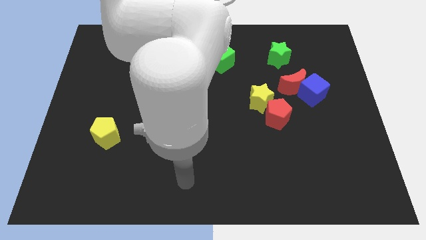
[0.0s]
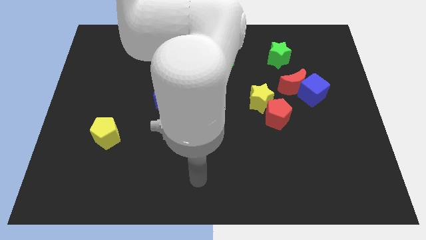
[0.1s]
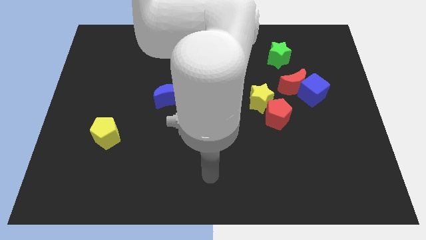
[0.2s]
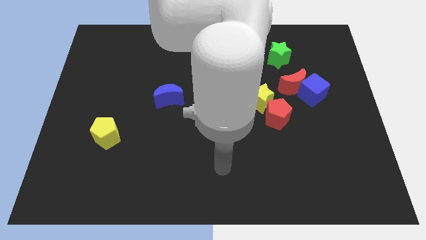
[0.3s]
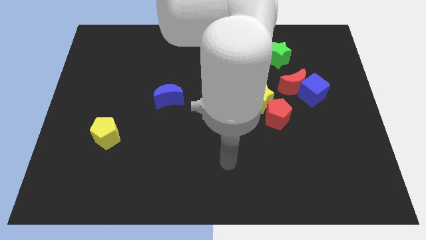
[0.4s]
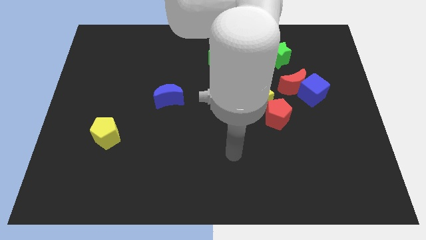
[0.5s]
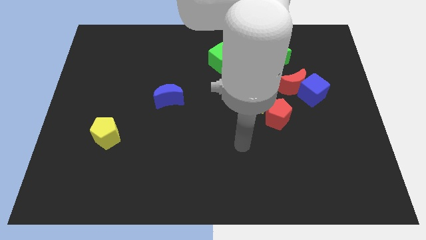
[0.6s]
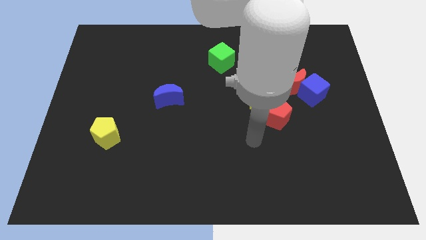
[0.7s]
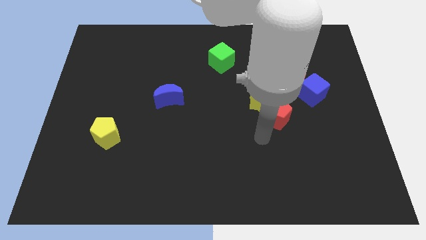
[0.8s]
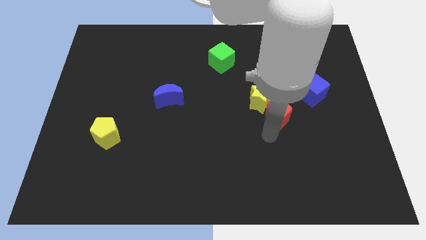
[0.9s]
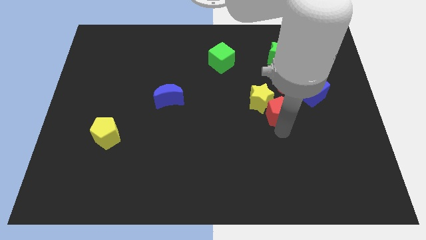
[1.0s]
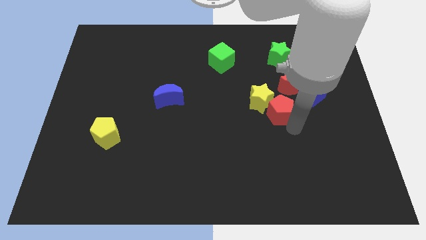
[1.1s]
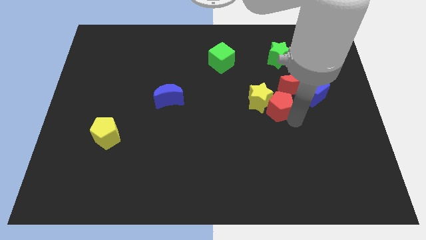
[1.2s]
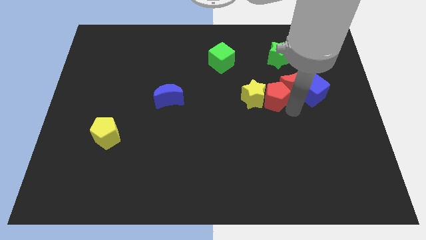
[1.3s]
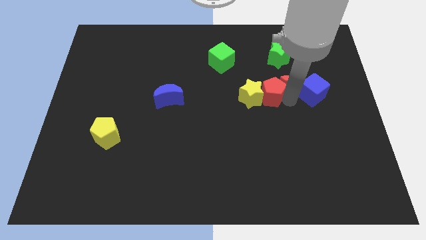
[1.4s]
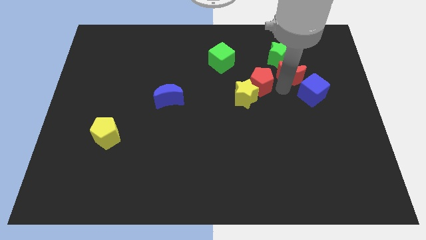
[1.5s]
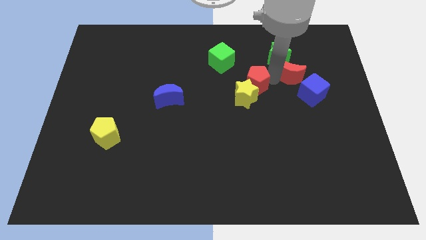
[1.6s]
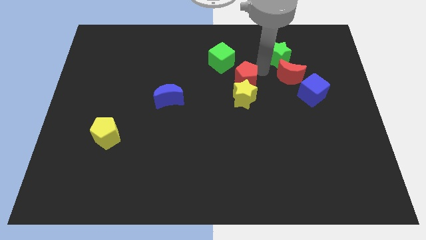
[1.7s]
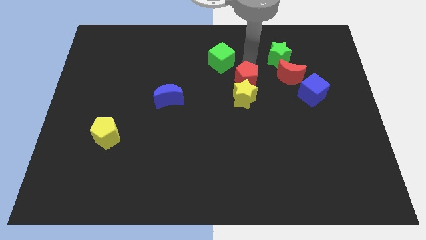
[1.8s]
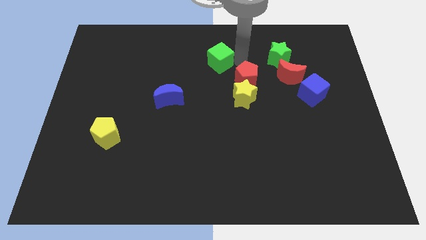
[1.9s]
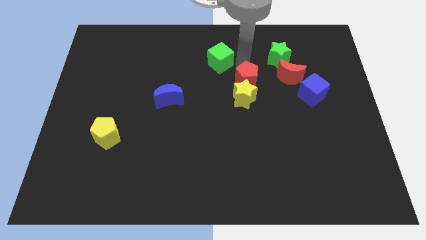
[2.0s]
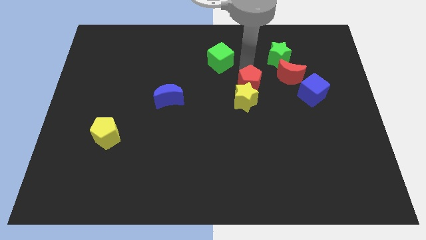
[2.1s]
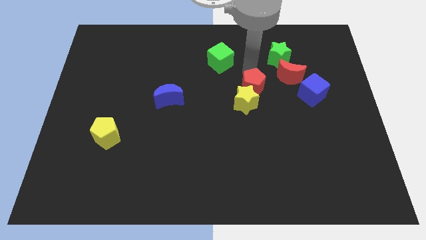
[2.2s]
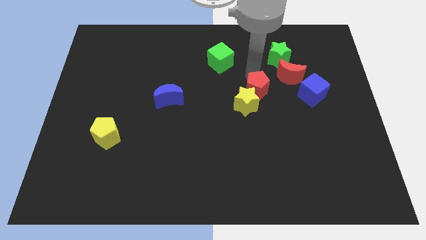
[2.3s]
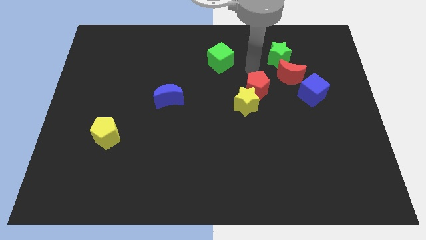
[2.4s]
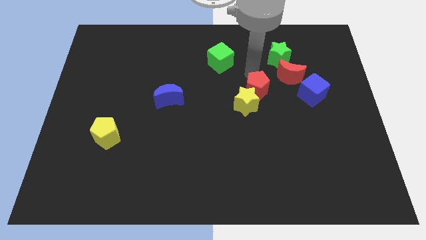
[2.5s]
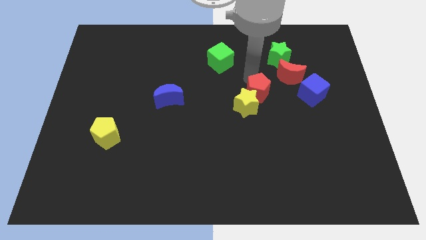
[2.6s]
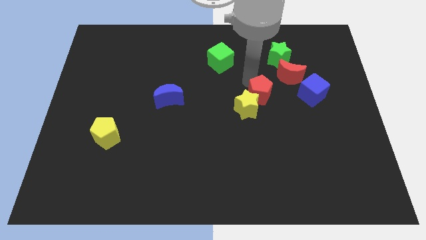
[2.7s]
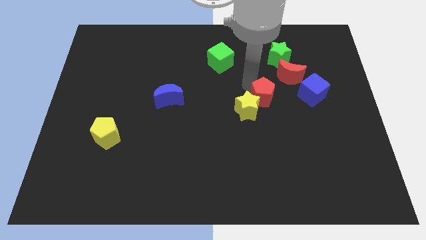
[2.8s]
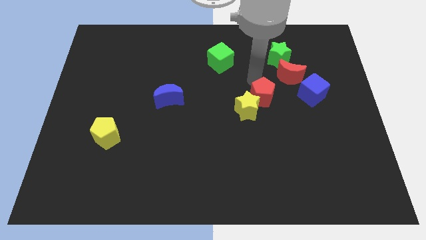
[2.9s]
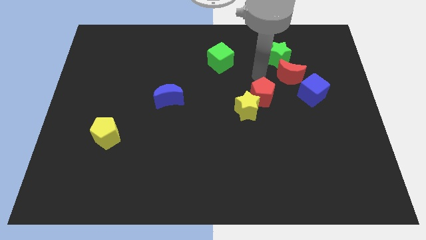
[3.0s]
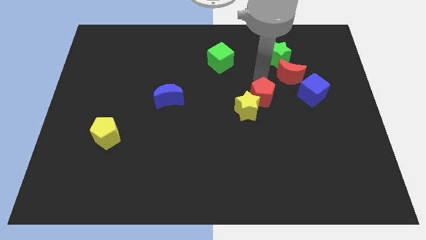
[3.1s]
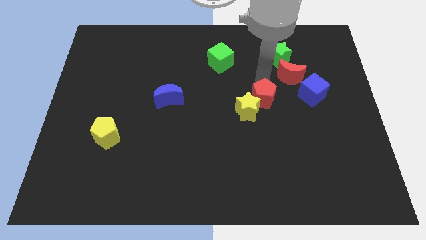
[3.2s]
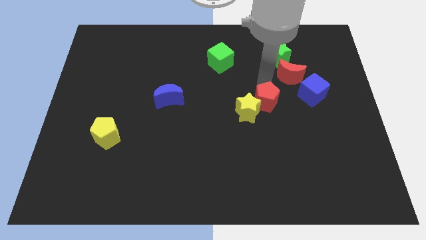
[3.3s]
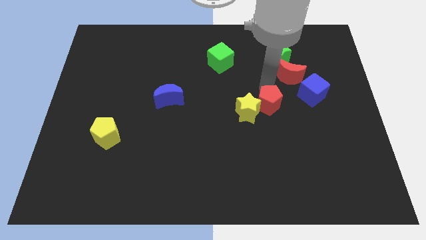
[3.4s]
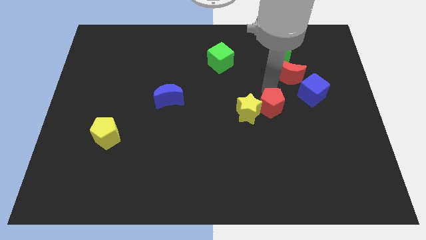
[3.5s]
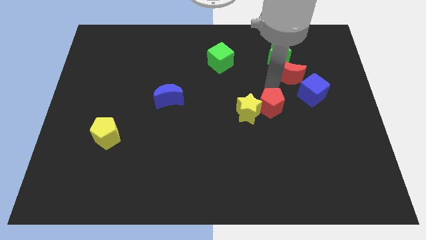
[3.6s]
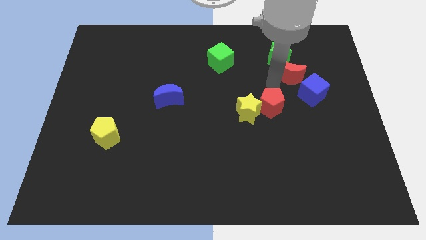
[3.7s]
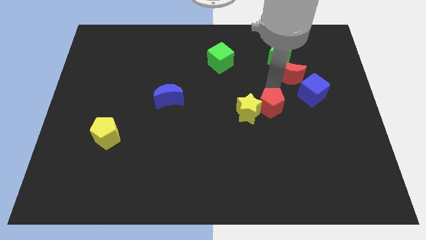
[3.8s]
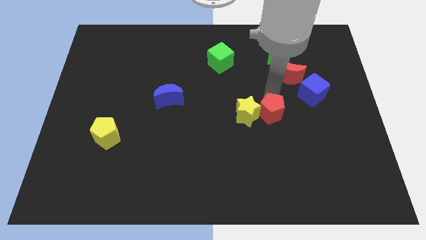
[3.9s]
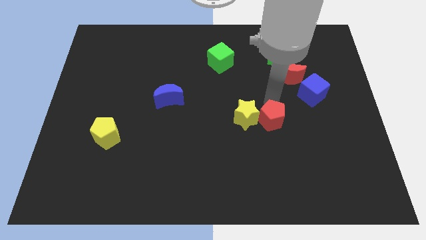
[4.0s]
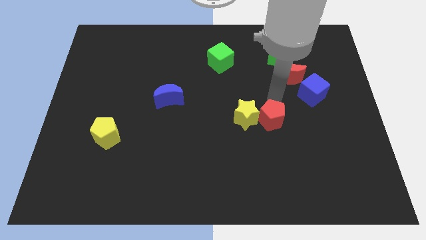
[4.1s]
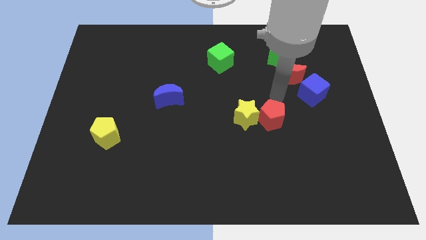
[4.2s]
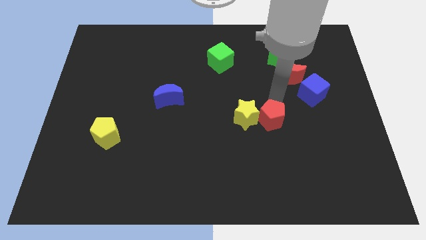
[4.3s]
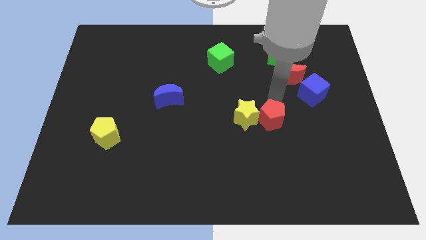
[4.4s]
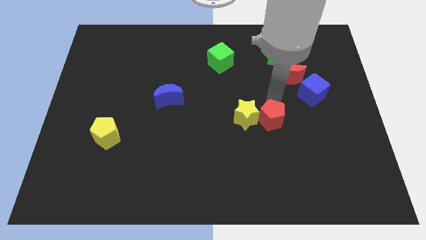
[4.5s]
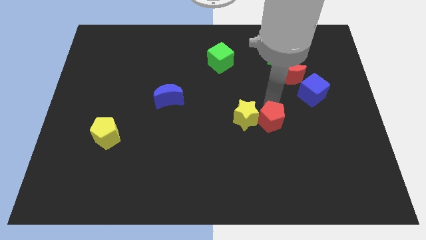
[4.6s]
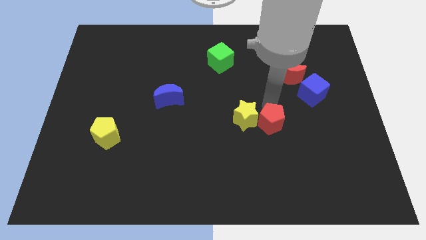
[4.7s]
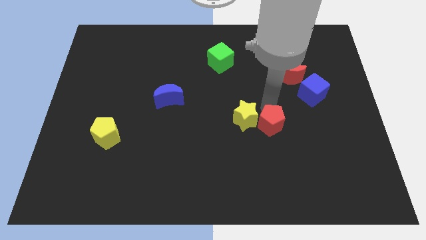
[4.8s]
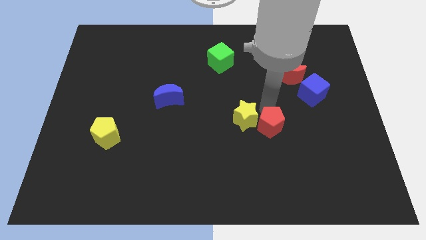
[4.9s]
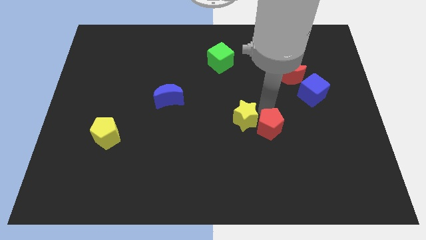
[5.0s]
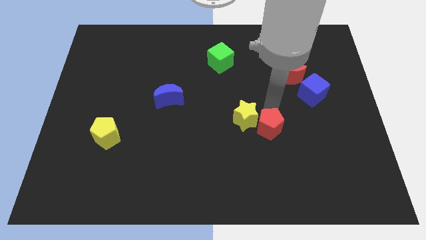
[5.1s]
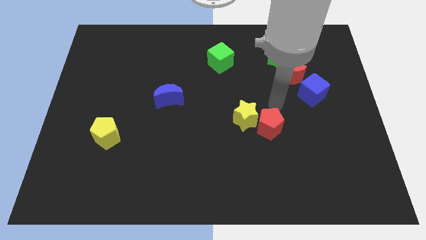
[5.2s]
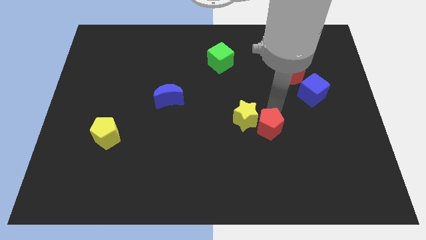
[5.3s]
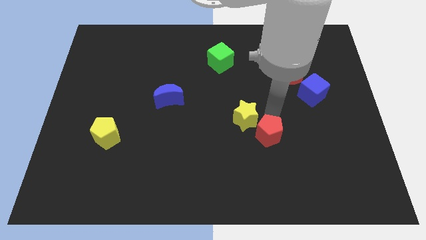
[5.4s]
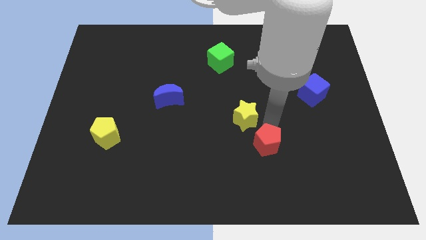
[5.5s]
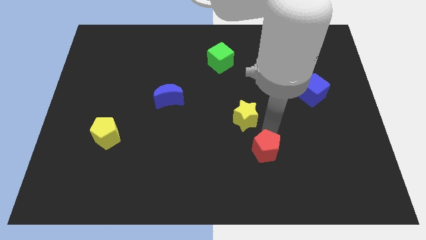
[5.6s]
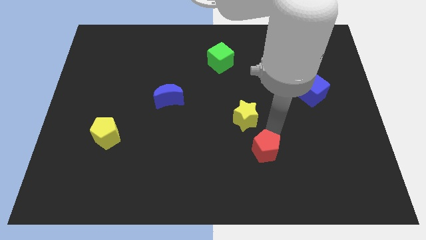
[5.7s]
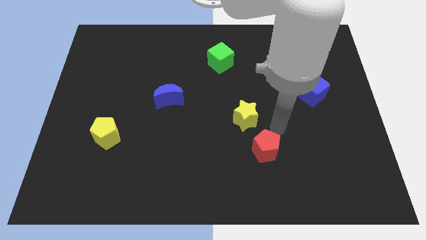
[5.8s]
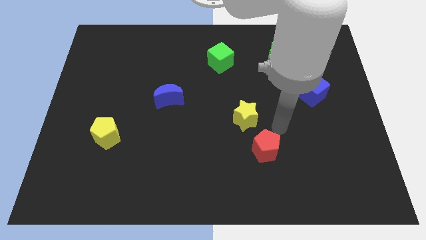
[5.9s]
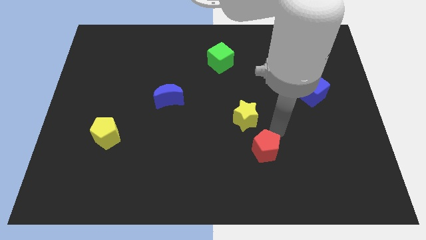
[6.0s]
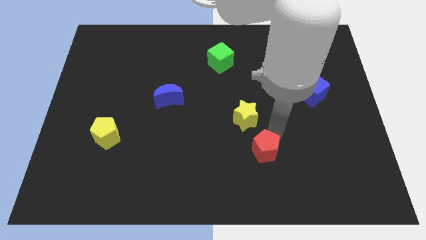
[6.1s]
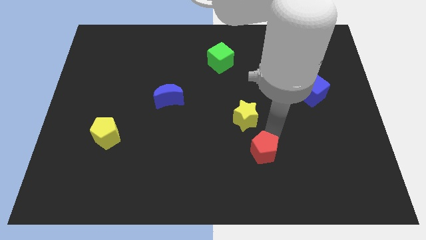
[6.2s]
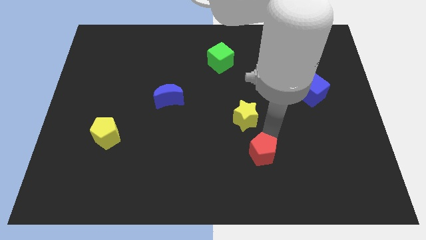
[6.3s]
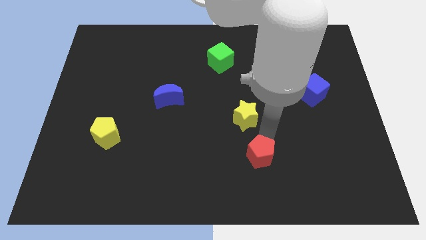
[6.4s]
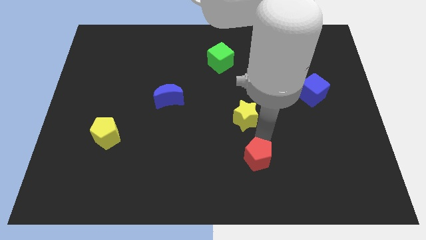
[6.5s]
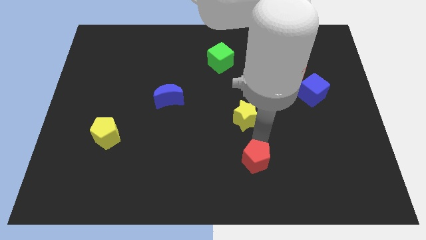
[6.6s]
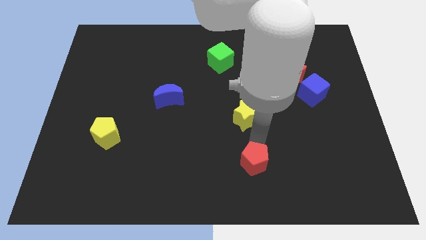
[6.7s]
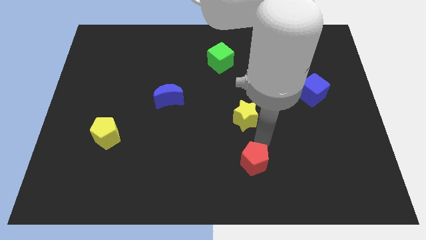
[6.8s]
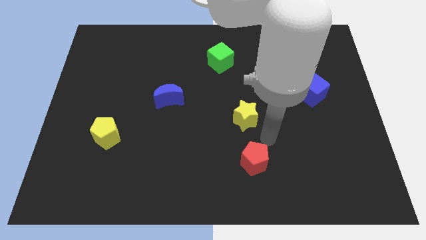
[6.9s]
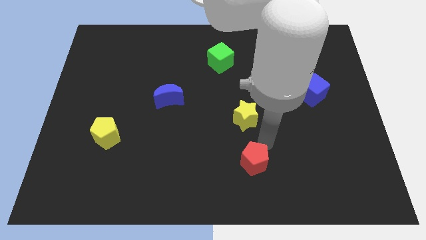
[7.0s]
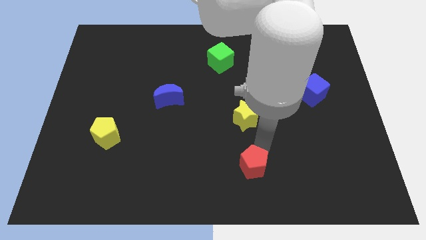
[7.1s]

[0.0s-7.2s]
push the red pentagon to the bottom
